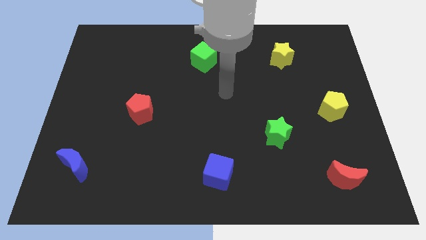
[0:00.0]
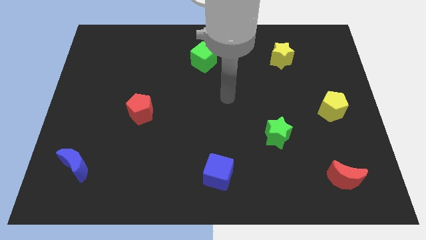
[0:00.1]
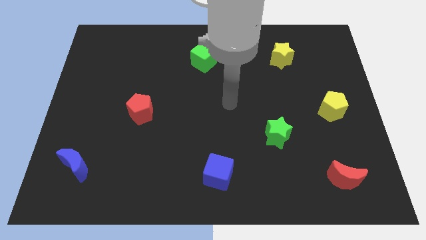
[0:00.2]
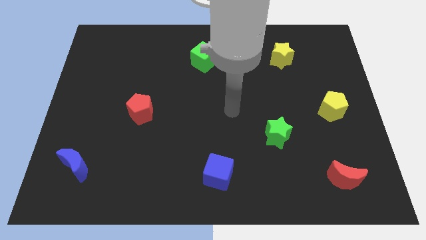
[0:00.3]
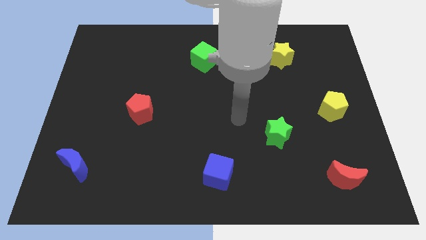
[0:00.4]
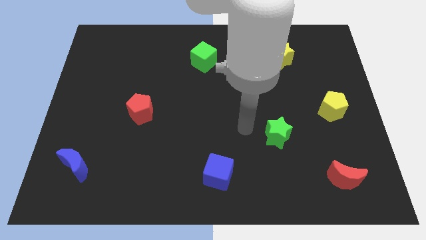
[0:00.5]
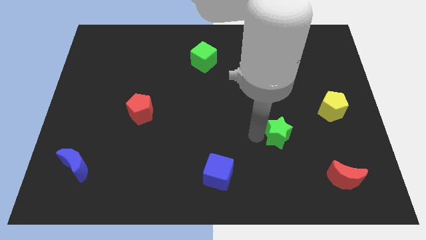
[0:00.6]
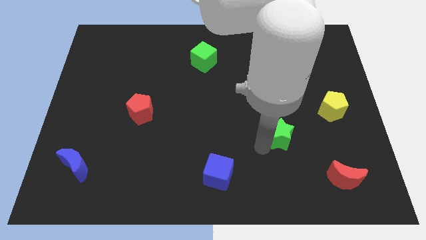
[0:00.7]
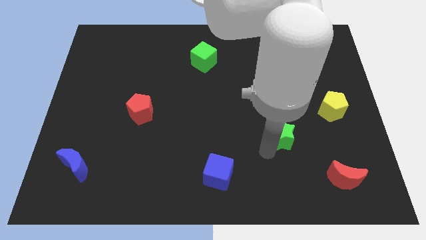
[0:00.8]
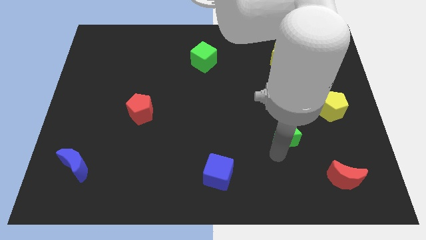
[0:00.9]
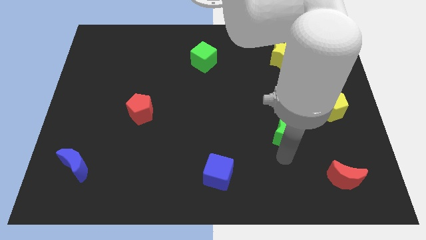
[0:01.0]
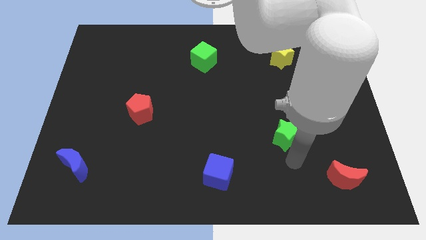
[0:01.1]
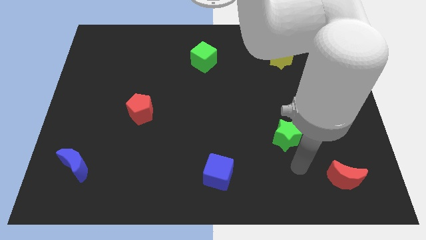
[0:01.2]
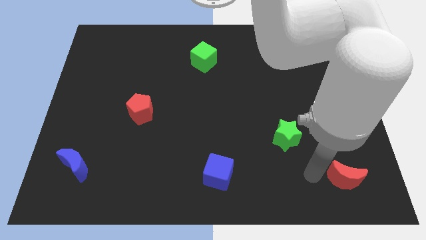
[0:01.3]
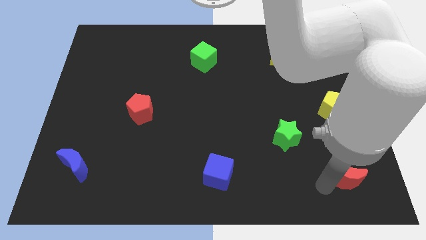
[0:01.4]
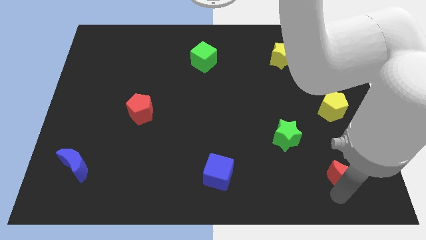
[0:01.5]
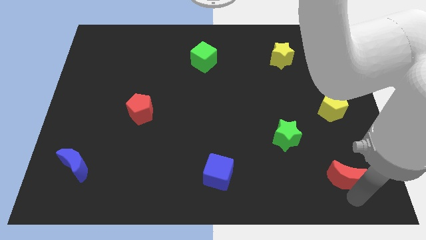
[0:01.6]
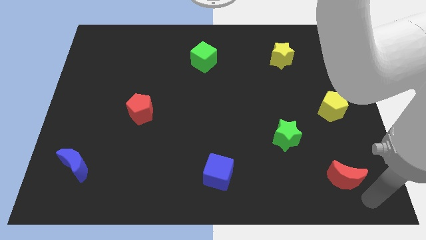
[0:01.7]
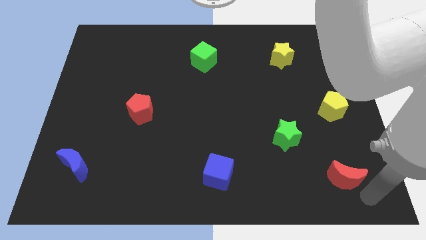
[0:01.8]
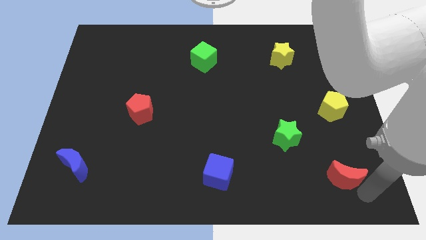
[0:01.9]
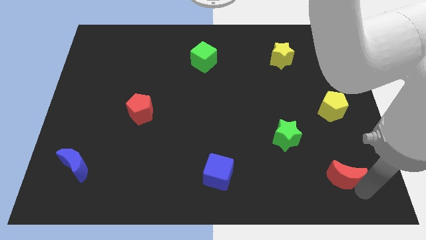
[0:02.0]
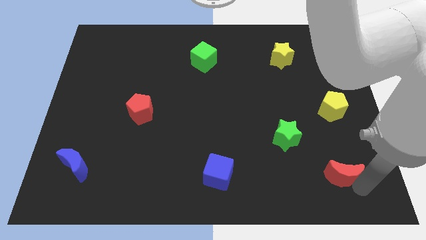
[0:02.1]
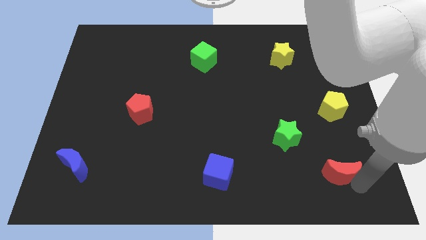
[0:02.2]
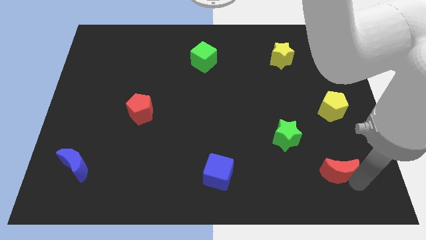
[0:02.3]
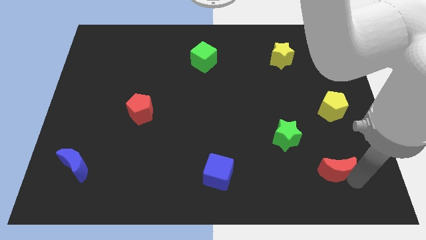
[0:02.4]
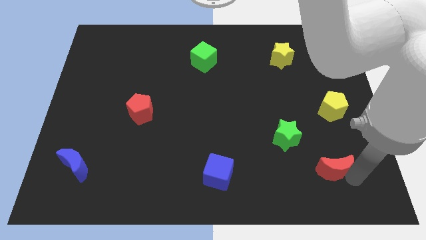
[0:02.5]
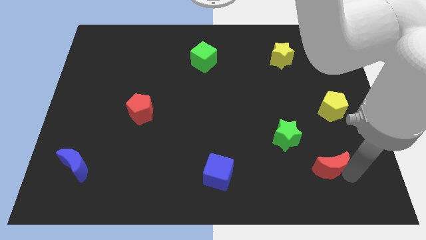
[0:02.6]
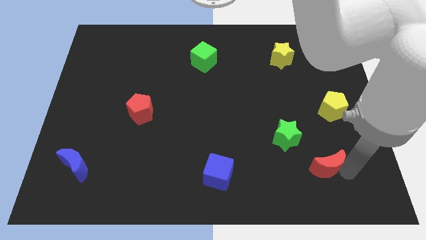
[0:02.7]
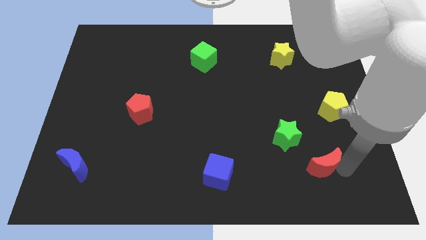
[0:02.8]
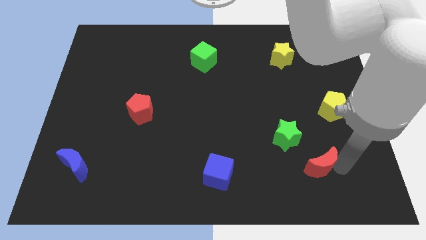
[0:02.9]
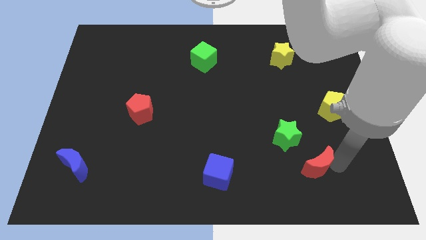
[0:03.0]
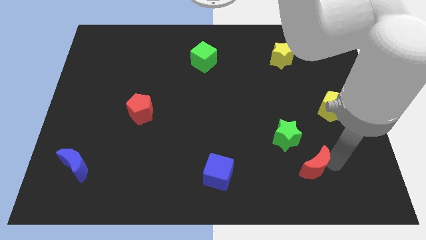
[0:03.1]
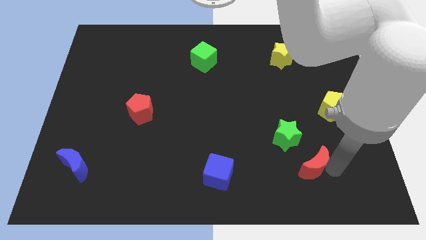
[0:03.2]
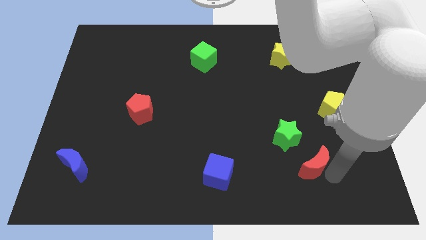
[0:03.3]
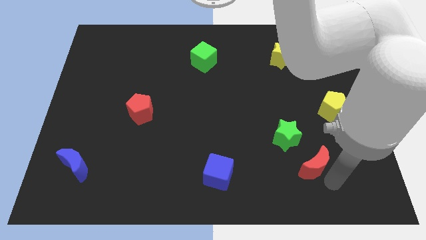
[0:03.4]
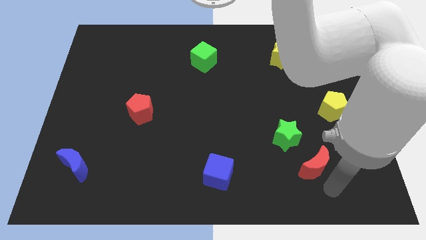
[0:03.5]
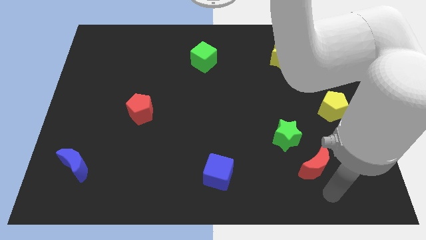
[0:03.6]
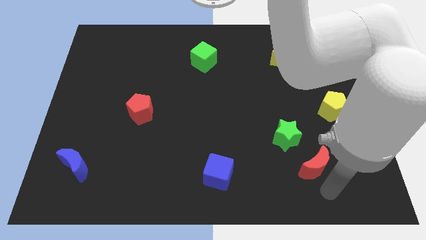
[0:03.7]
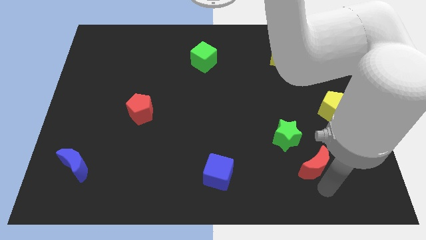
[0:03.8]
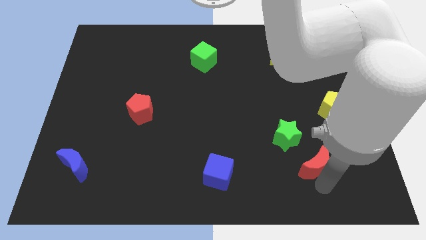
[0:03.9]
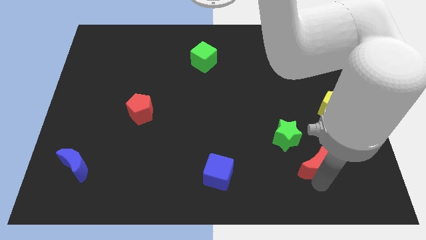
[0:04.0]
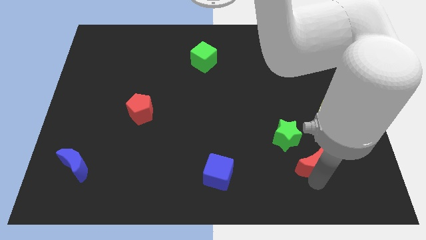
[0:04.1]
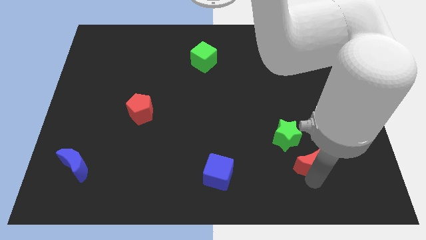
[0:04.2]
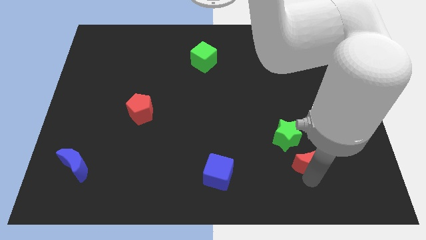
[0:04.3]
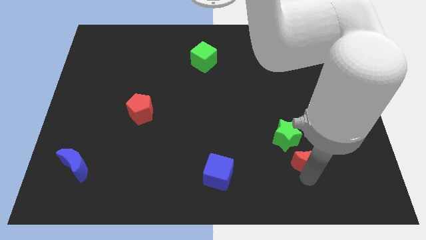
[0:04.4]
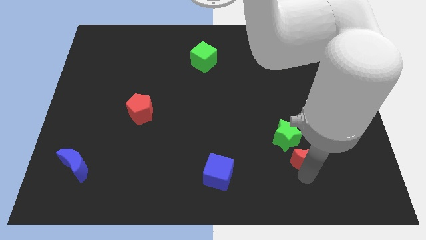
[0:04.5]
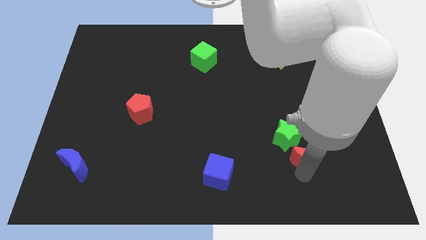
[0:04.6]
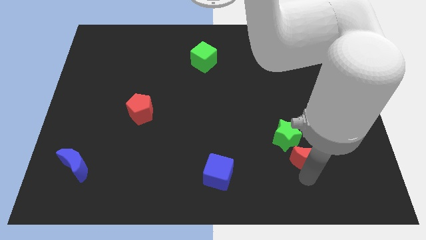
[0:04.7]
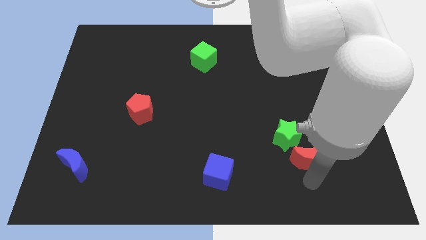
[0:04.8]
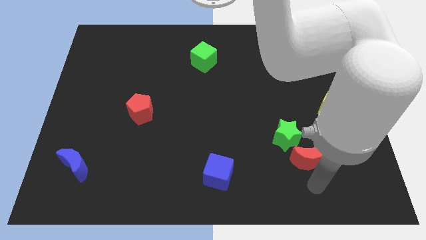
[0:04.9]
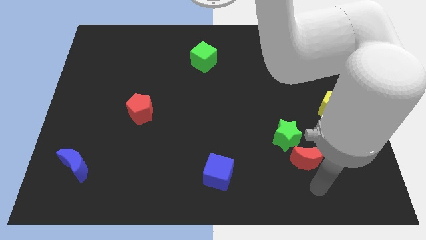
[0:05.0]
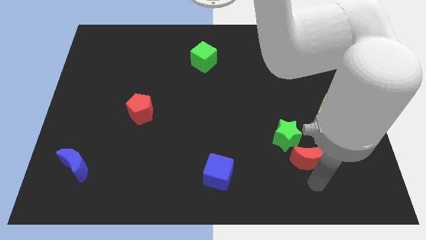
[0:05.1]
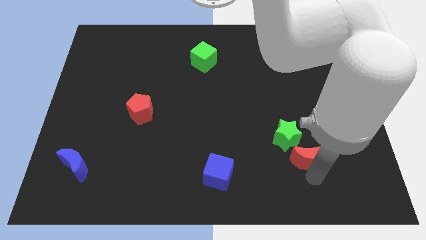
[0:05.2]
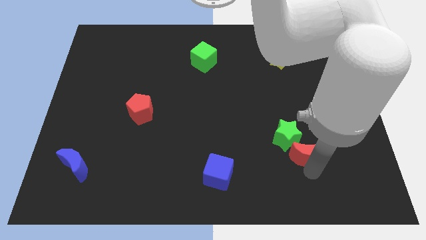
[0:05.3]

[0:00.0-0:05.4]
push the red moon towards the green star

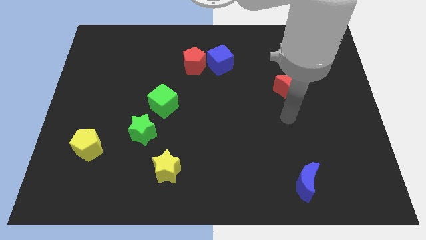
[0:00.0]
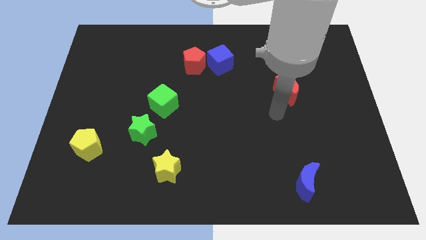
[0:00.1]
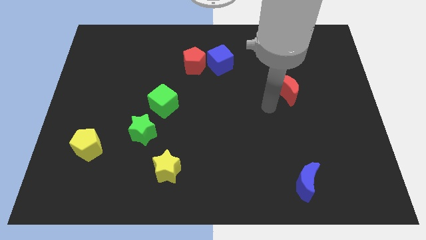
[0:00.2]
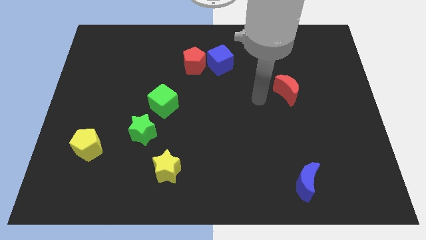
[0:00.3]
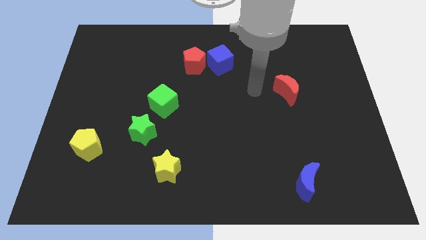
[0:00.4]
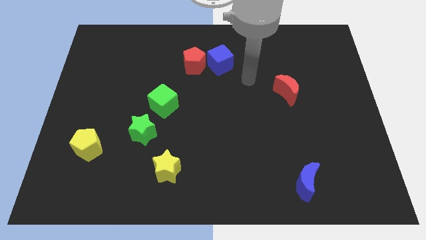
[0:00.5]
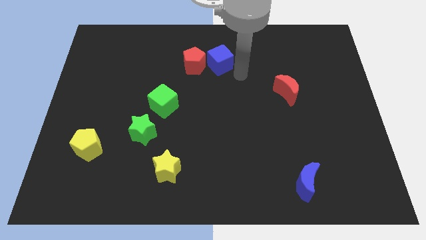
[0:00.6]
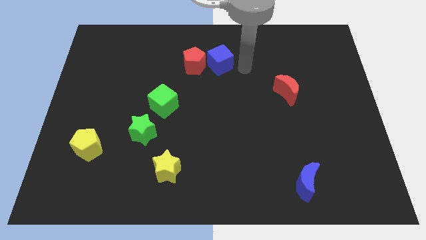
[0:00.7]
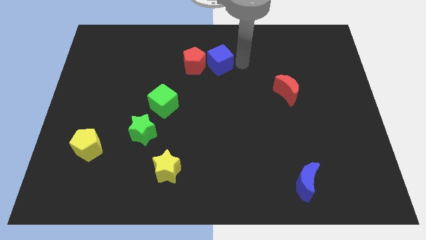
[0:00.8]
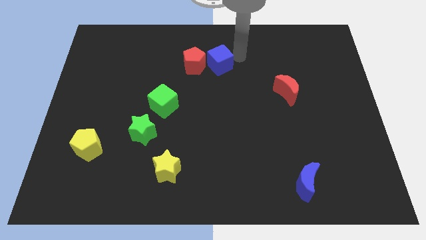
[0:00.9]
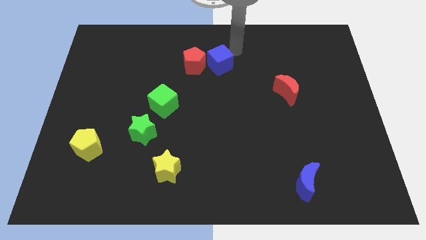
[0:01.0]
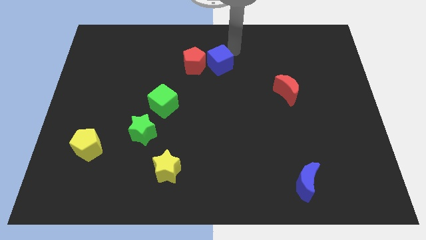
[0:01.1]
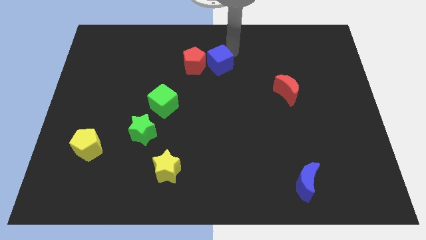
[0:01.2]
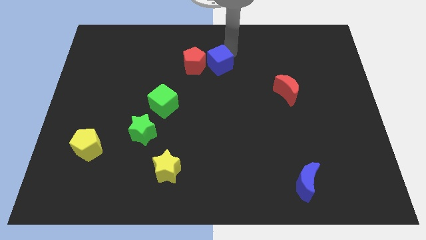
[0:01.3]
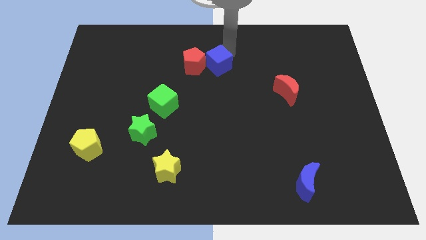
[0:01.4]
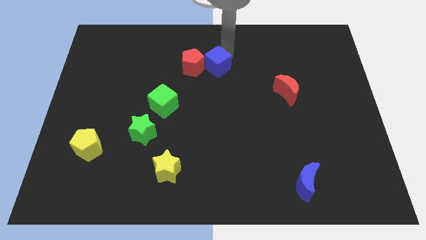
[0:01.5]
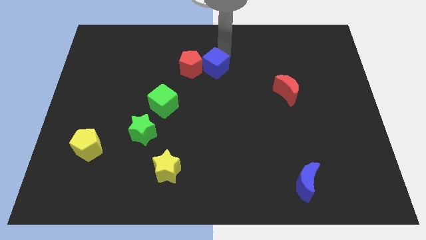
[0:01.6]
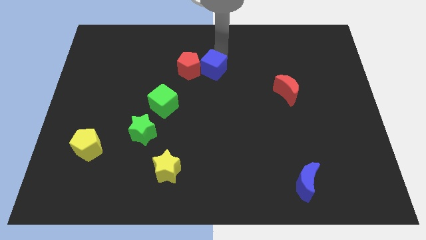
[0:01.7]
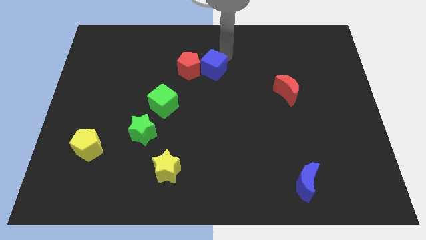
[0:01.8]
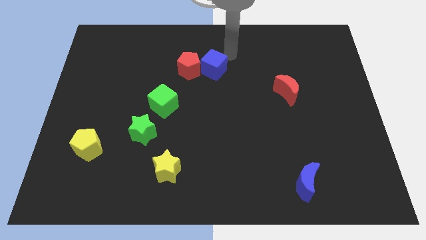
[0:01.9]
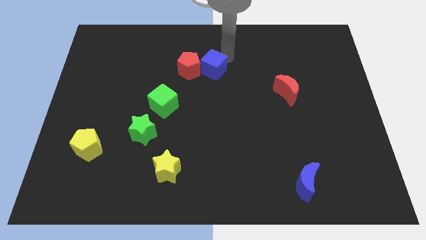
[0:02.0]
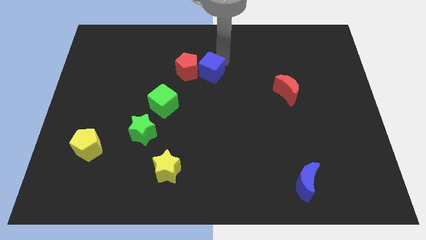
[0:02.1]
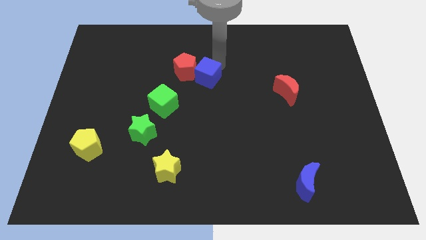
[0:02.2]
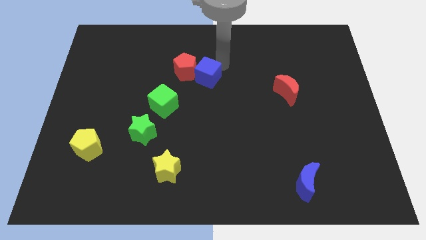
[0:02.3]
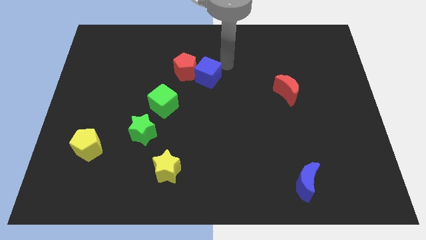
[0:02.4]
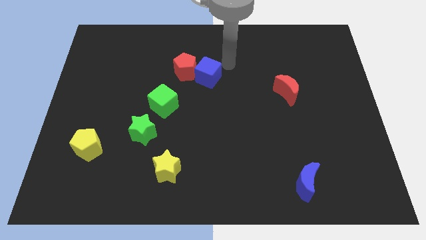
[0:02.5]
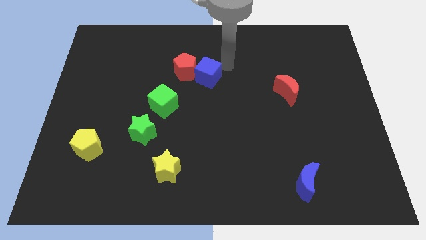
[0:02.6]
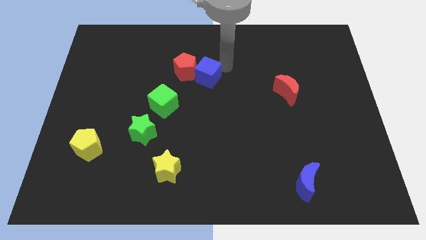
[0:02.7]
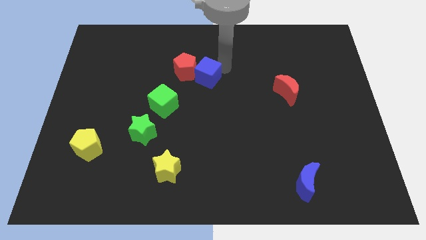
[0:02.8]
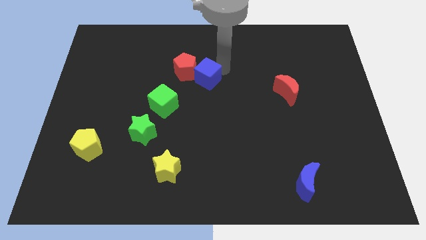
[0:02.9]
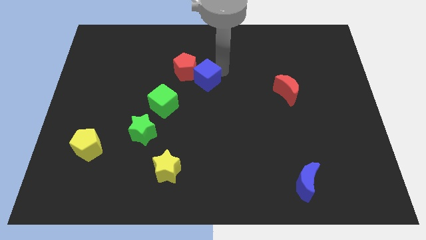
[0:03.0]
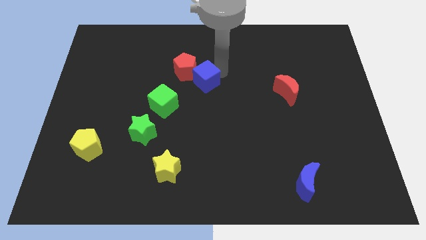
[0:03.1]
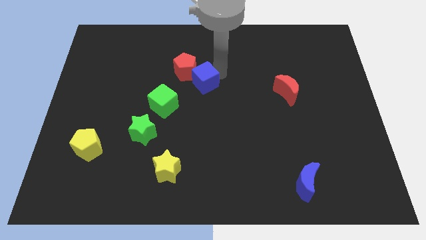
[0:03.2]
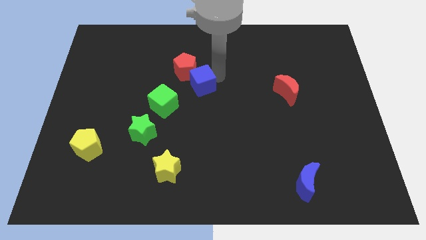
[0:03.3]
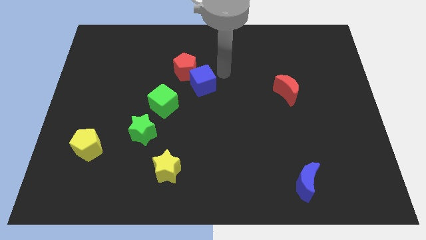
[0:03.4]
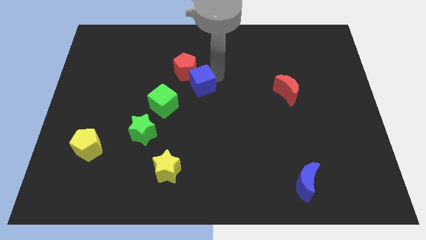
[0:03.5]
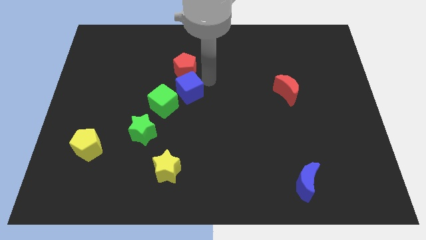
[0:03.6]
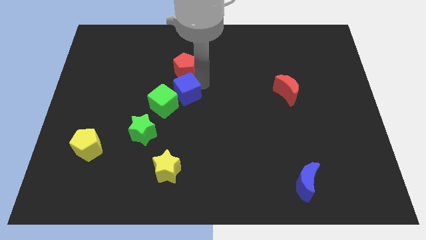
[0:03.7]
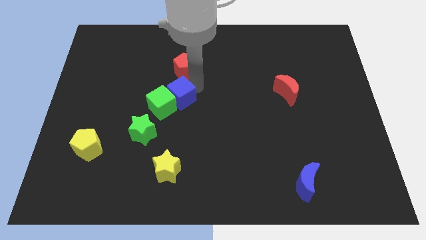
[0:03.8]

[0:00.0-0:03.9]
push the blue cube to the green cube
